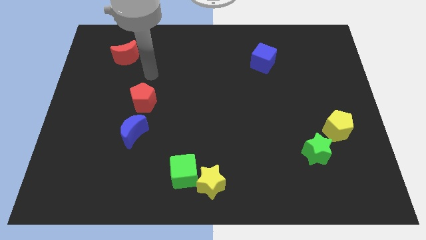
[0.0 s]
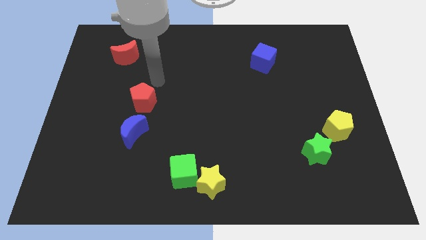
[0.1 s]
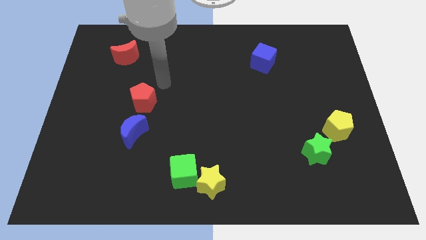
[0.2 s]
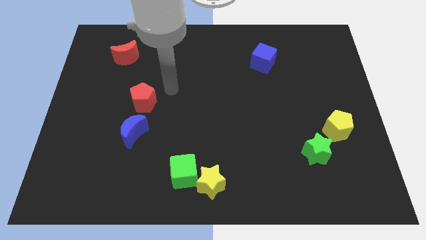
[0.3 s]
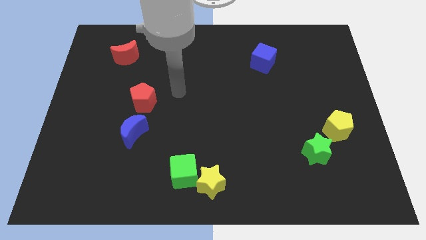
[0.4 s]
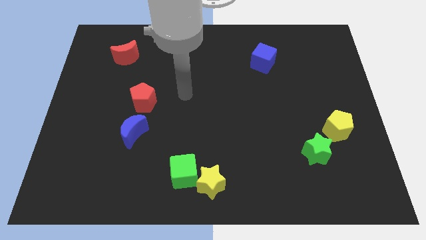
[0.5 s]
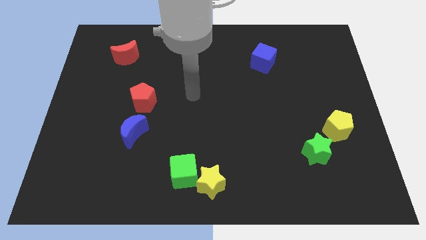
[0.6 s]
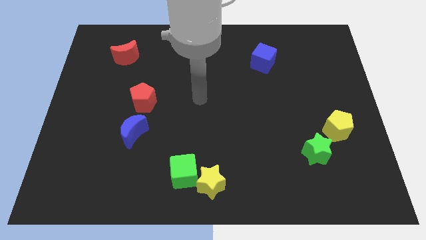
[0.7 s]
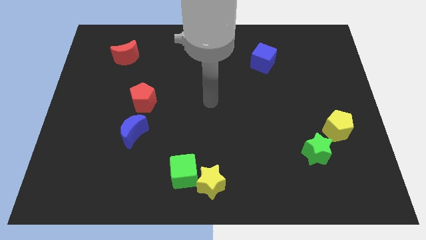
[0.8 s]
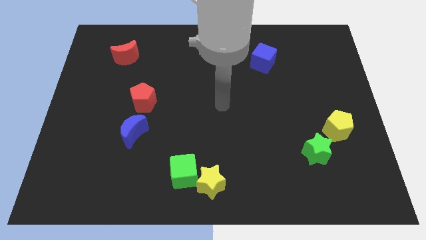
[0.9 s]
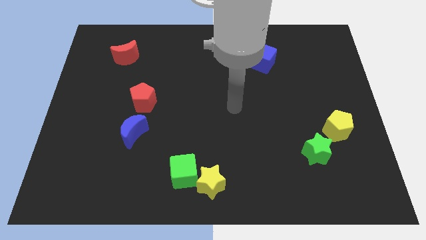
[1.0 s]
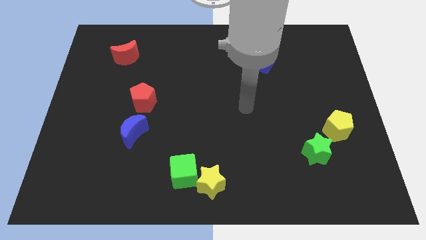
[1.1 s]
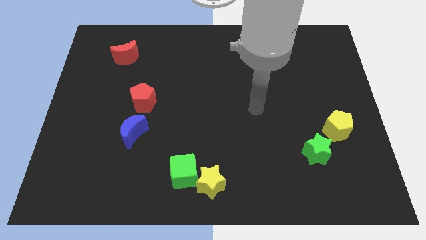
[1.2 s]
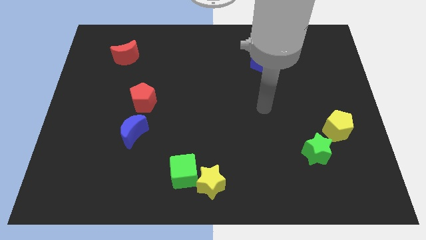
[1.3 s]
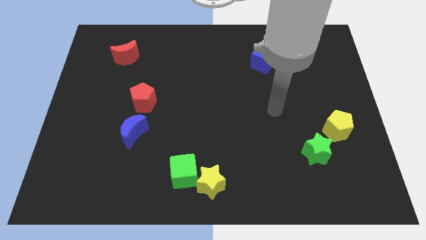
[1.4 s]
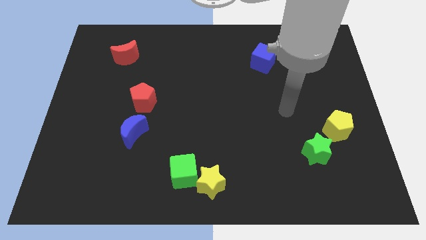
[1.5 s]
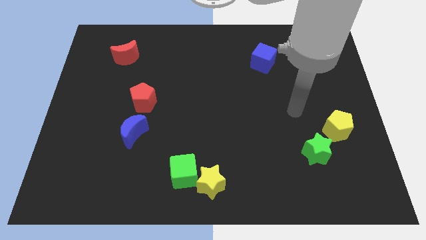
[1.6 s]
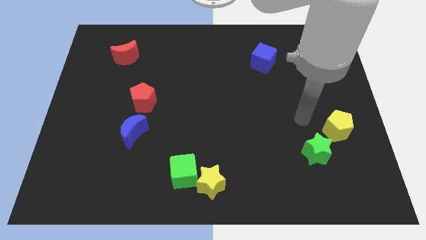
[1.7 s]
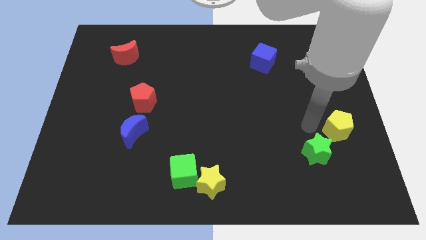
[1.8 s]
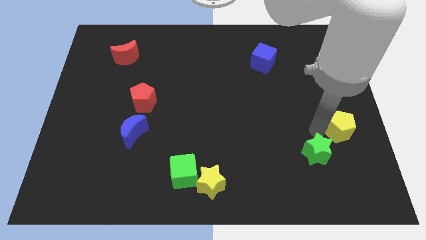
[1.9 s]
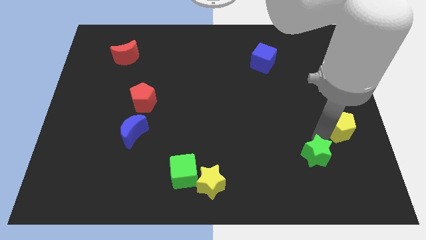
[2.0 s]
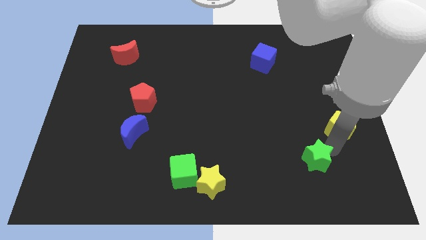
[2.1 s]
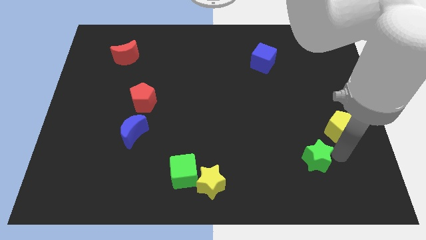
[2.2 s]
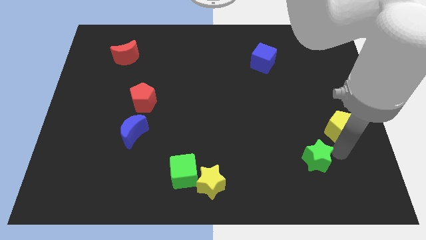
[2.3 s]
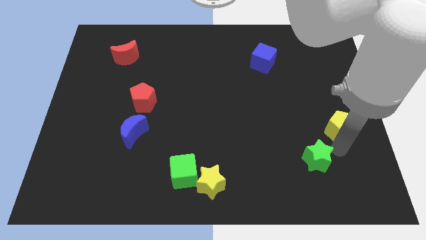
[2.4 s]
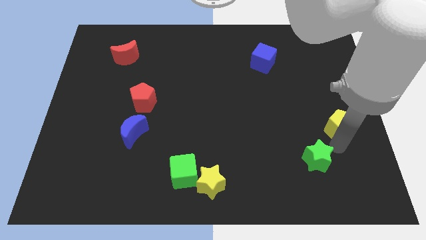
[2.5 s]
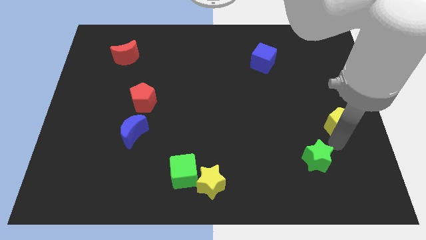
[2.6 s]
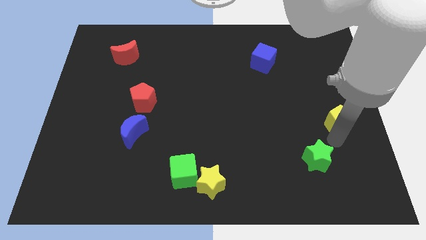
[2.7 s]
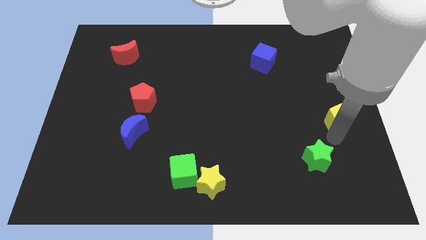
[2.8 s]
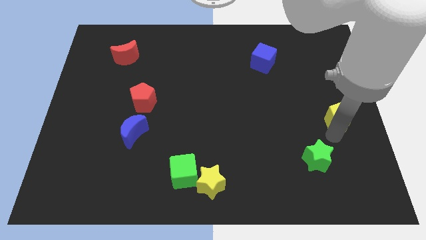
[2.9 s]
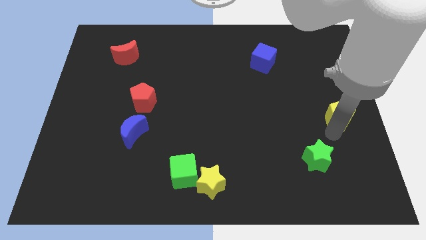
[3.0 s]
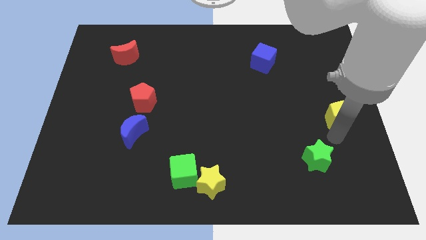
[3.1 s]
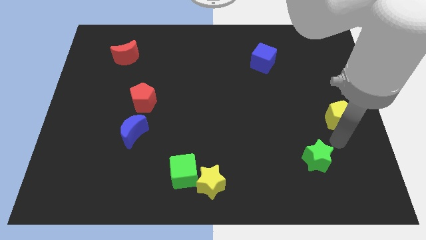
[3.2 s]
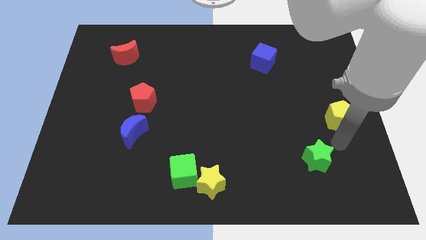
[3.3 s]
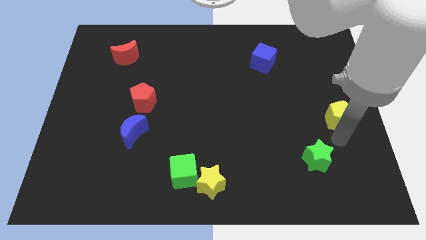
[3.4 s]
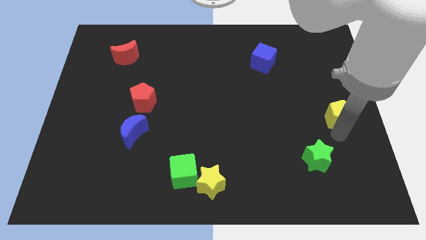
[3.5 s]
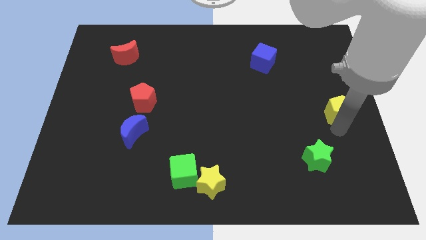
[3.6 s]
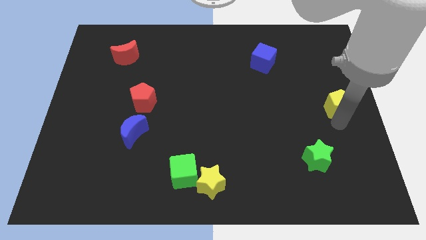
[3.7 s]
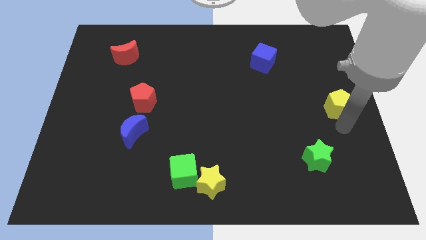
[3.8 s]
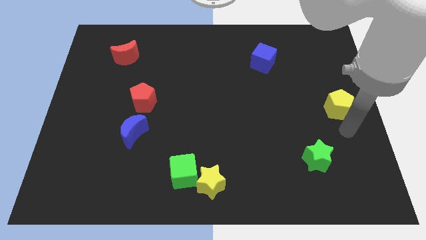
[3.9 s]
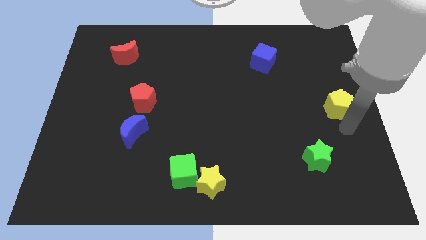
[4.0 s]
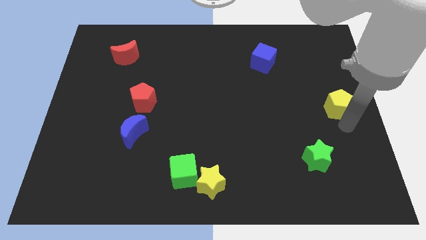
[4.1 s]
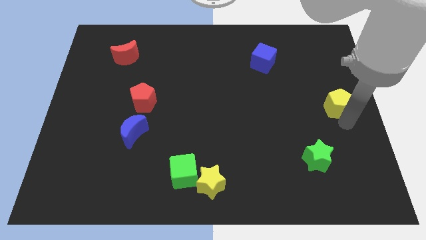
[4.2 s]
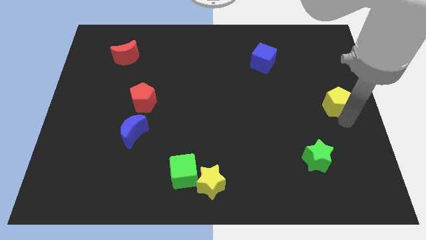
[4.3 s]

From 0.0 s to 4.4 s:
slide the yellow pentagon up a little bit

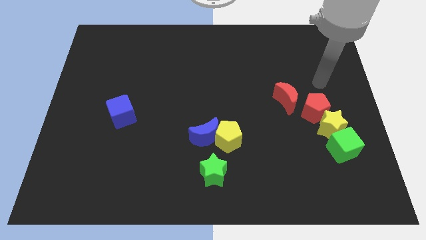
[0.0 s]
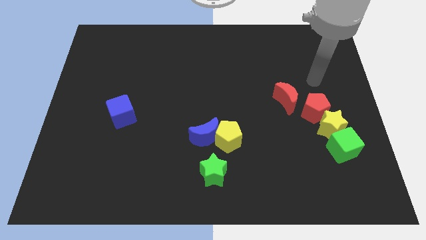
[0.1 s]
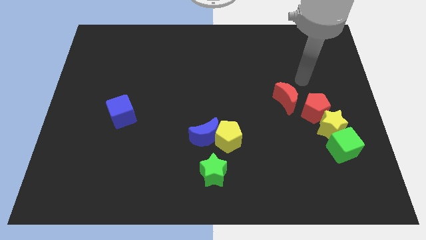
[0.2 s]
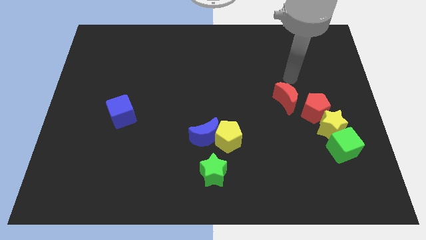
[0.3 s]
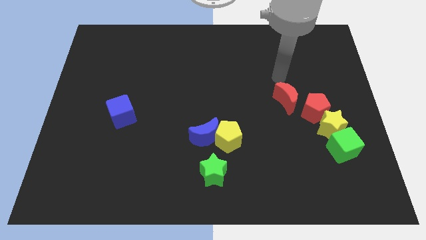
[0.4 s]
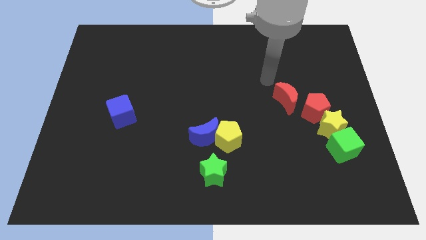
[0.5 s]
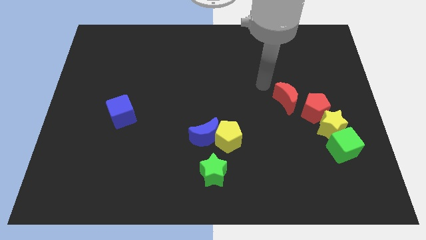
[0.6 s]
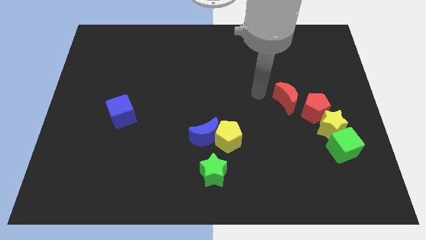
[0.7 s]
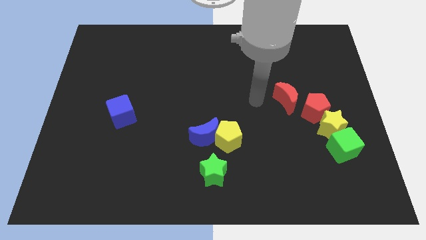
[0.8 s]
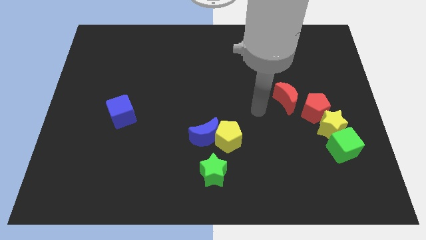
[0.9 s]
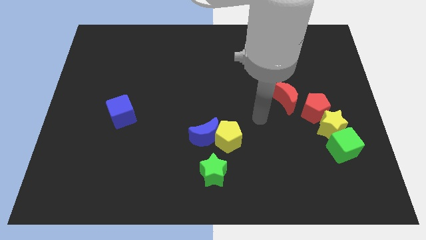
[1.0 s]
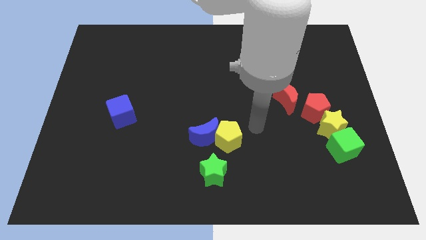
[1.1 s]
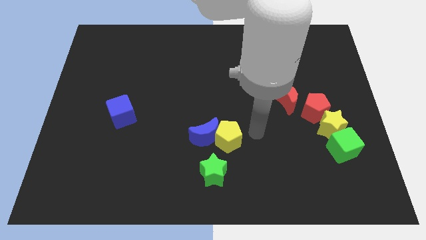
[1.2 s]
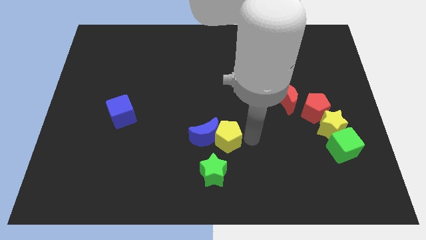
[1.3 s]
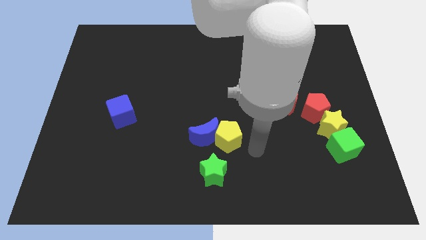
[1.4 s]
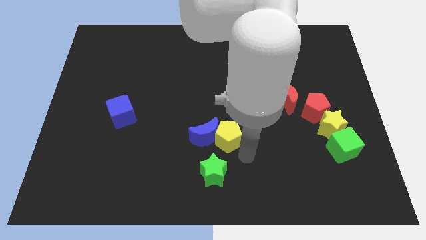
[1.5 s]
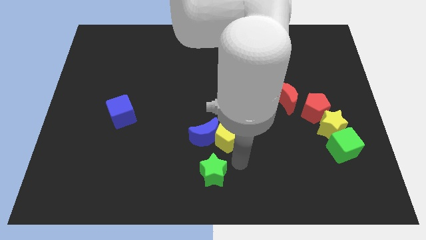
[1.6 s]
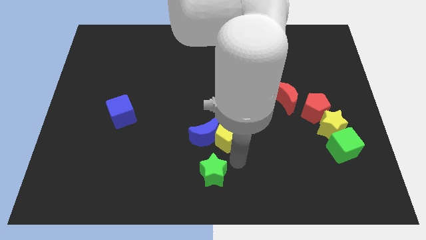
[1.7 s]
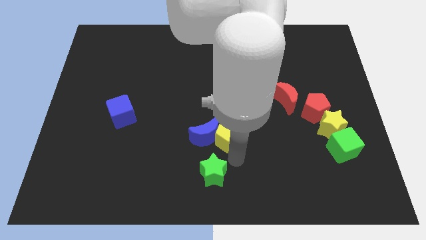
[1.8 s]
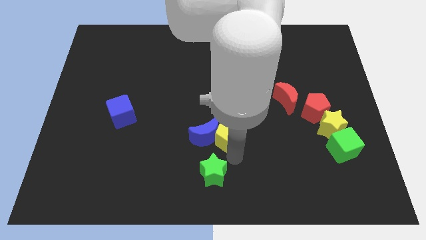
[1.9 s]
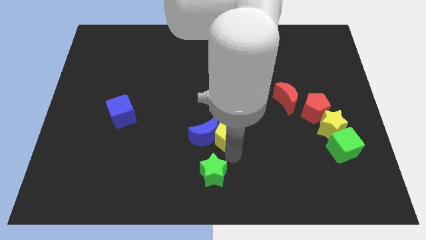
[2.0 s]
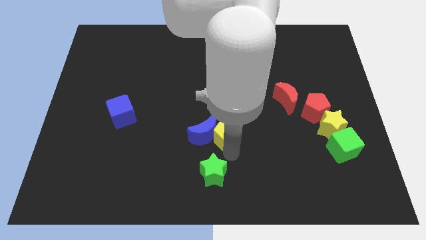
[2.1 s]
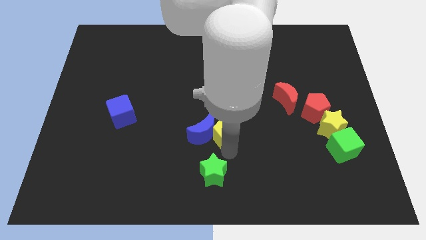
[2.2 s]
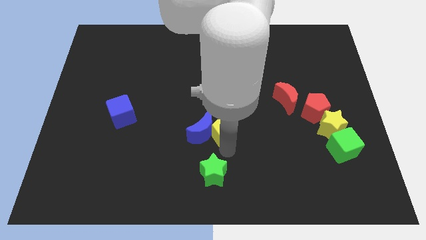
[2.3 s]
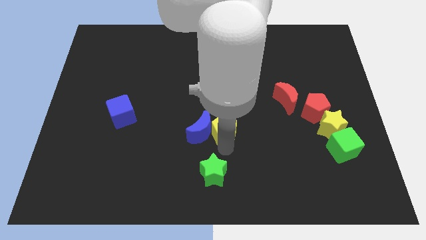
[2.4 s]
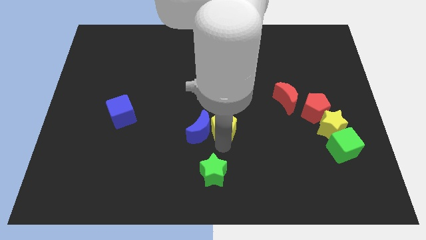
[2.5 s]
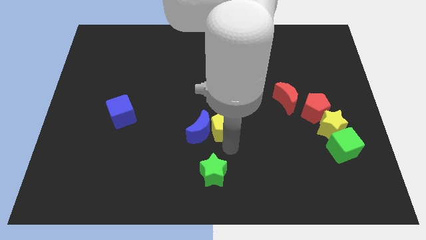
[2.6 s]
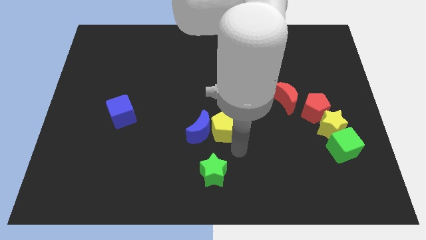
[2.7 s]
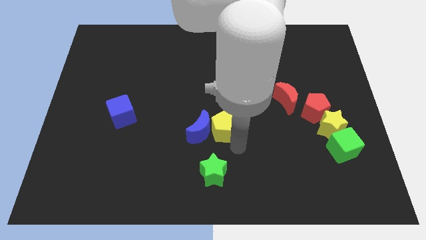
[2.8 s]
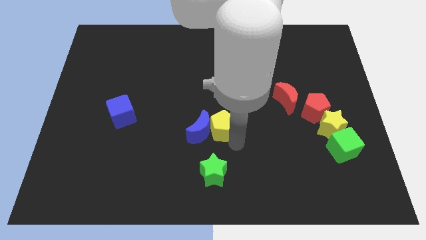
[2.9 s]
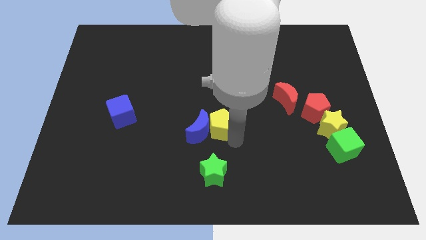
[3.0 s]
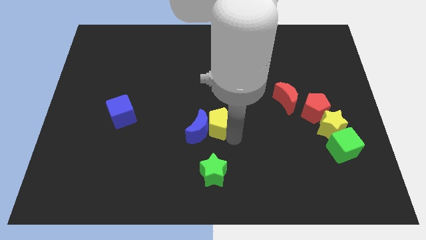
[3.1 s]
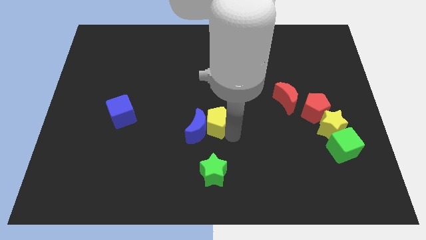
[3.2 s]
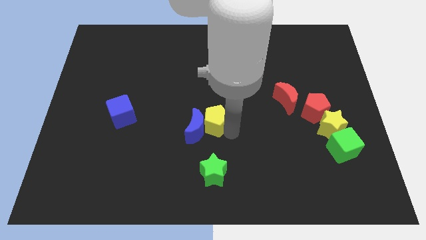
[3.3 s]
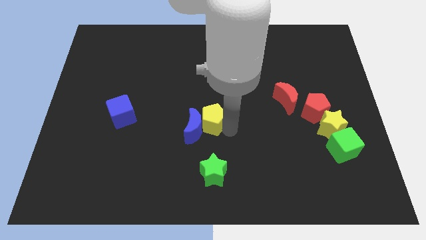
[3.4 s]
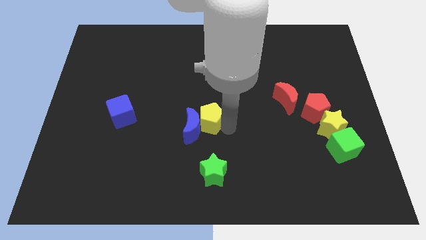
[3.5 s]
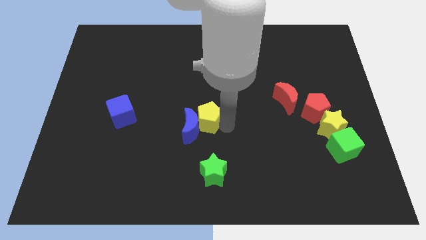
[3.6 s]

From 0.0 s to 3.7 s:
slightly push the yellow pentagon diagonally up and left
